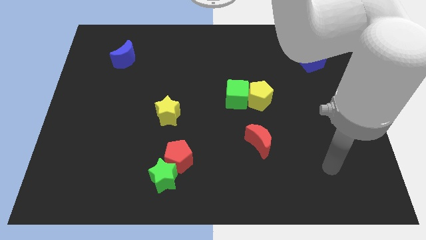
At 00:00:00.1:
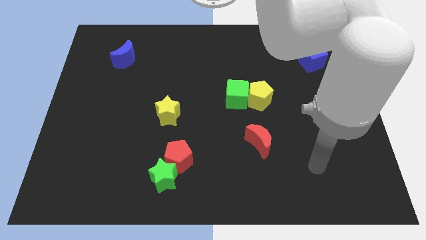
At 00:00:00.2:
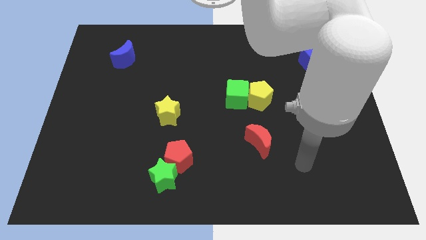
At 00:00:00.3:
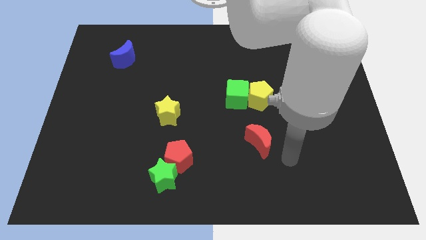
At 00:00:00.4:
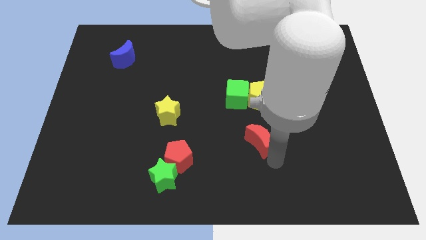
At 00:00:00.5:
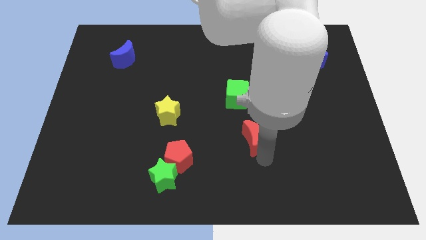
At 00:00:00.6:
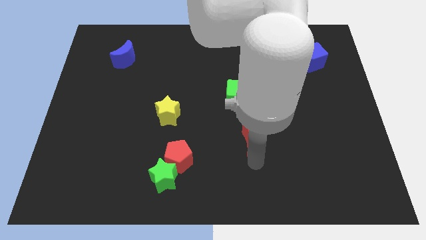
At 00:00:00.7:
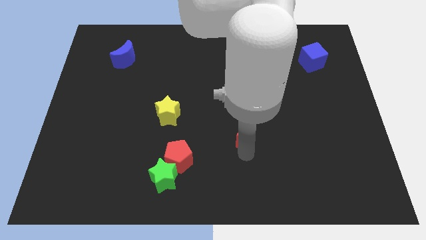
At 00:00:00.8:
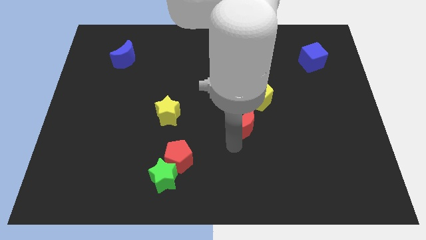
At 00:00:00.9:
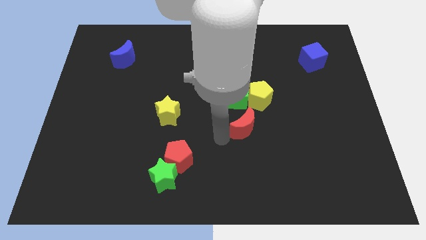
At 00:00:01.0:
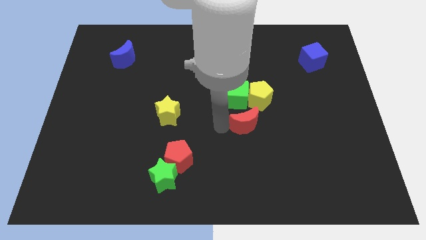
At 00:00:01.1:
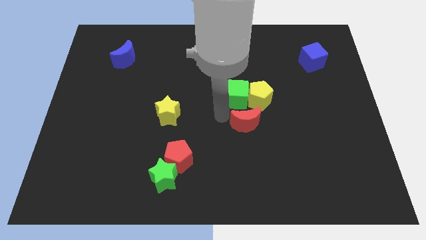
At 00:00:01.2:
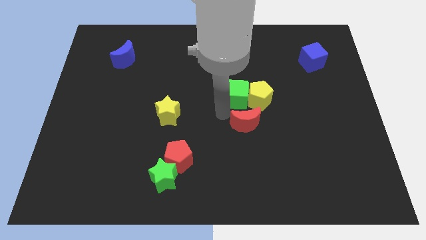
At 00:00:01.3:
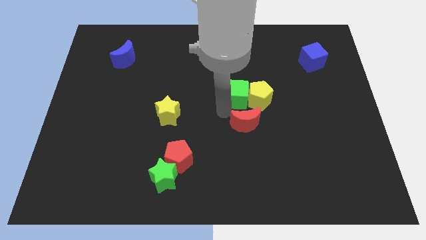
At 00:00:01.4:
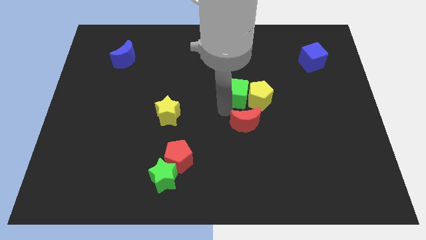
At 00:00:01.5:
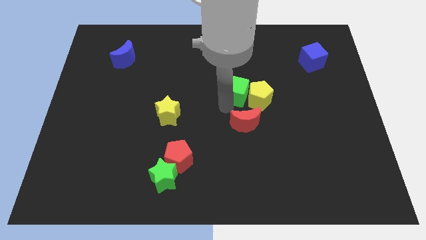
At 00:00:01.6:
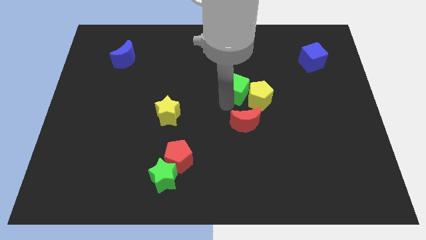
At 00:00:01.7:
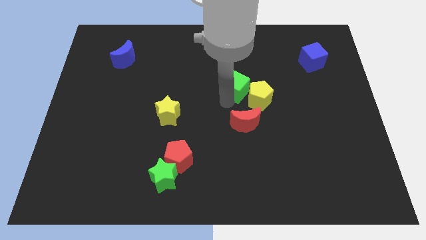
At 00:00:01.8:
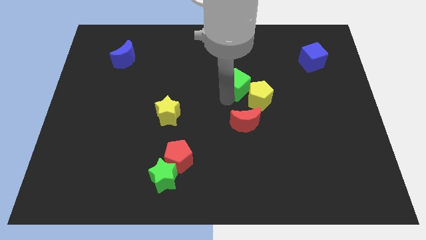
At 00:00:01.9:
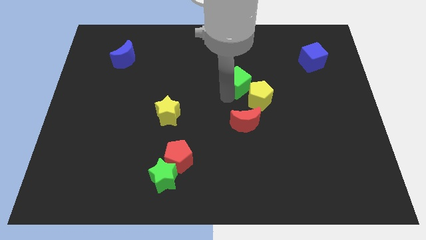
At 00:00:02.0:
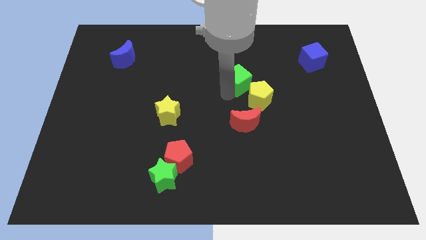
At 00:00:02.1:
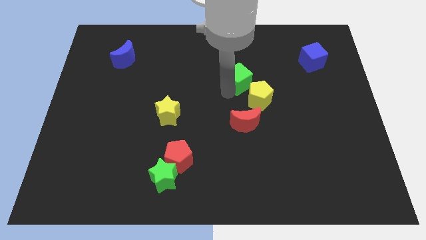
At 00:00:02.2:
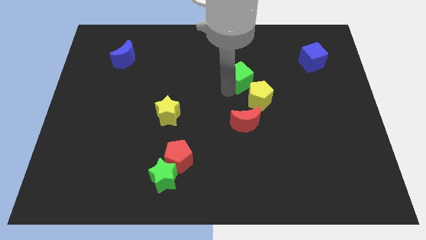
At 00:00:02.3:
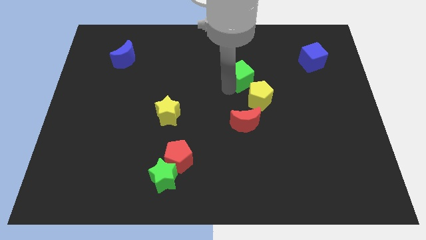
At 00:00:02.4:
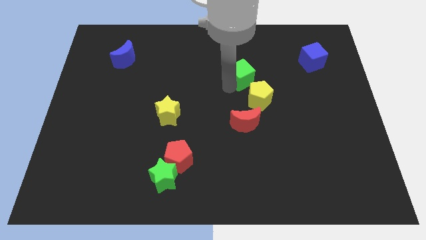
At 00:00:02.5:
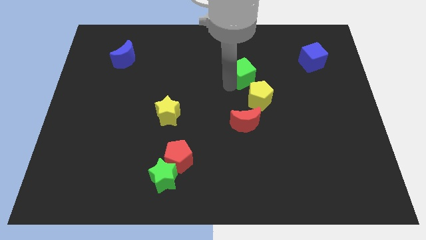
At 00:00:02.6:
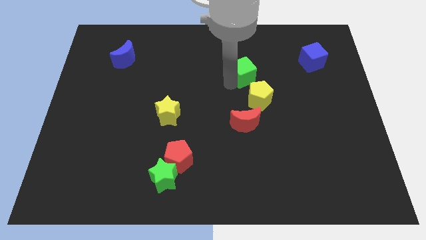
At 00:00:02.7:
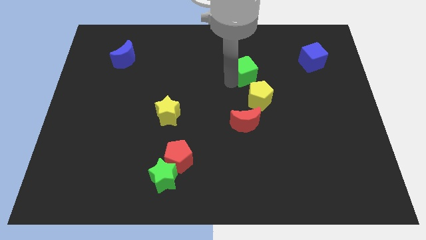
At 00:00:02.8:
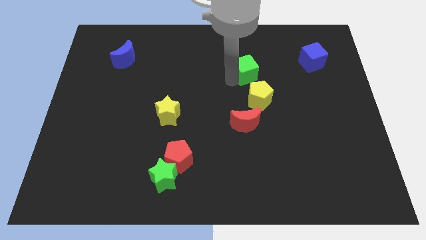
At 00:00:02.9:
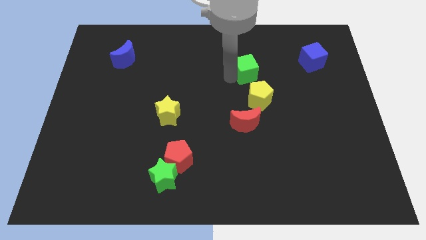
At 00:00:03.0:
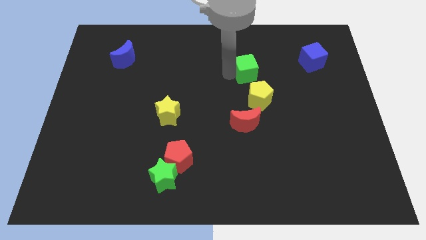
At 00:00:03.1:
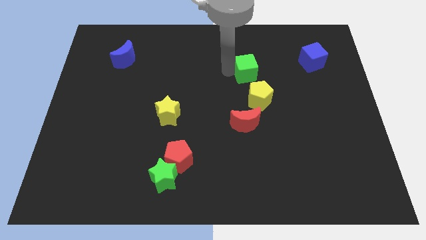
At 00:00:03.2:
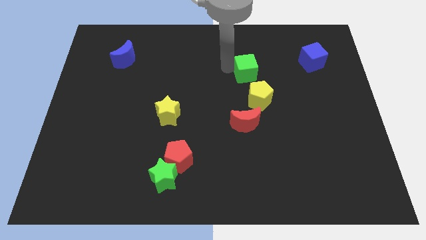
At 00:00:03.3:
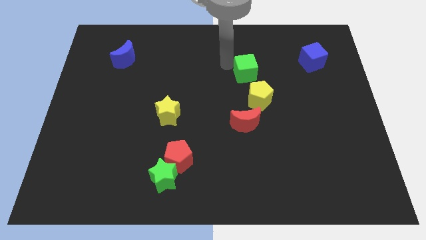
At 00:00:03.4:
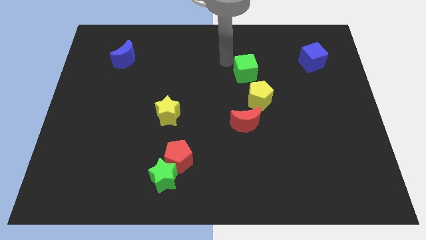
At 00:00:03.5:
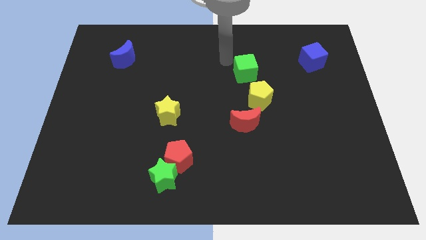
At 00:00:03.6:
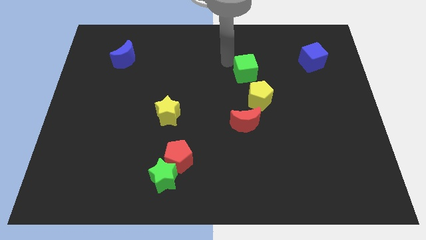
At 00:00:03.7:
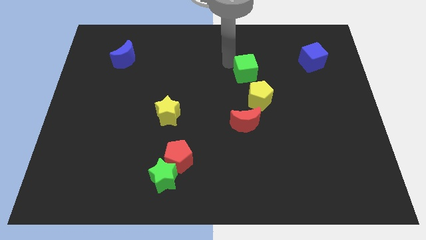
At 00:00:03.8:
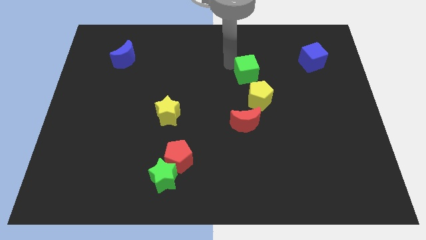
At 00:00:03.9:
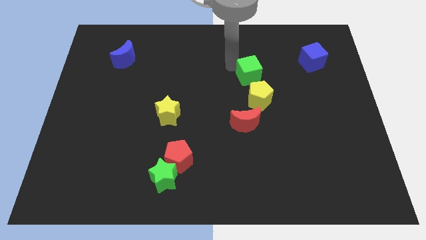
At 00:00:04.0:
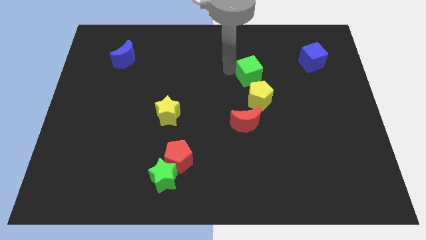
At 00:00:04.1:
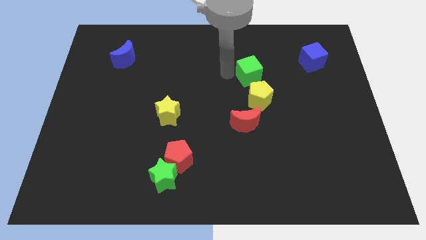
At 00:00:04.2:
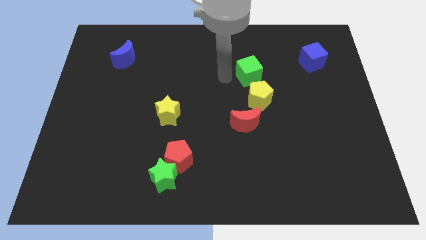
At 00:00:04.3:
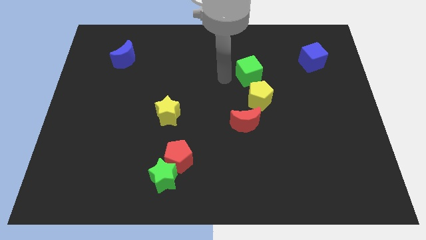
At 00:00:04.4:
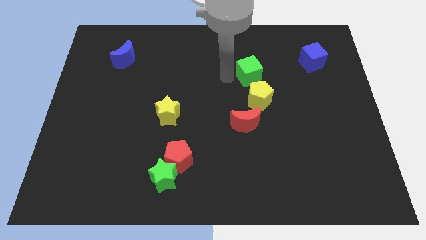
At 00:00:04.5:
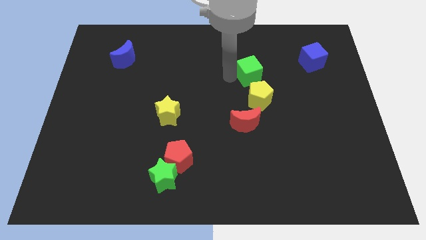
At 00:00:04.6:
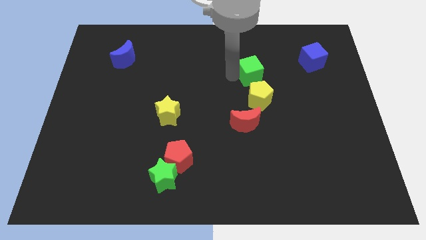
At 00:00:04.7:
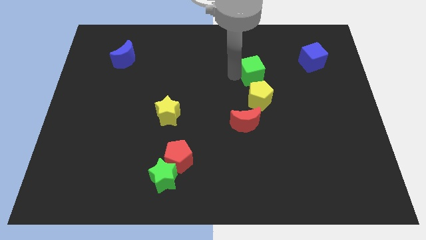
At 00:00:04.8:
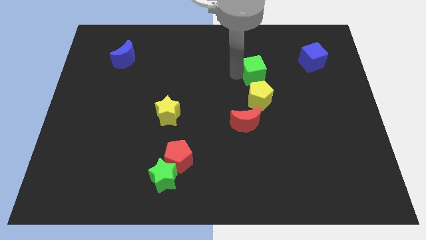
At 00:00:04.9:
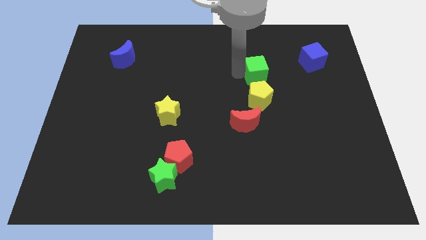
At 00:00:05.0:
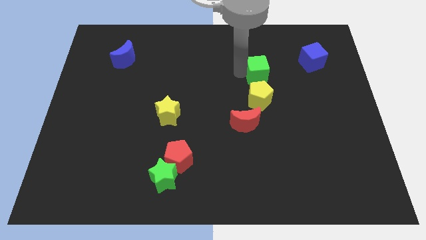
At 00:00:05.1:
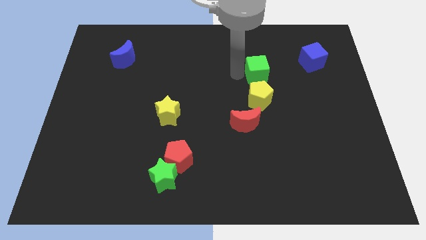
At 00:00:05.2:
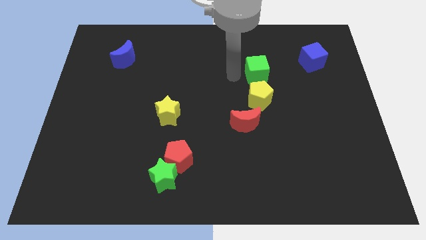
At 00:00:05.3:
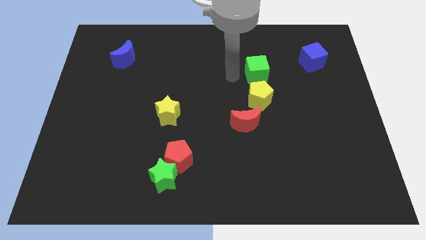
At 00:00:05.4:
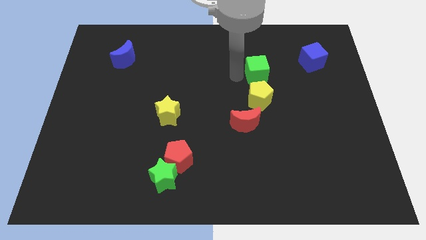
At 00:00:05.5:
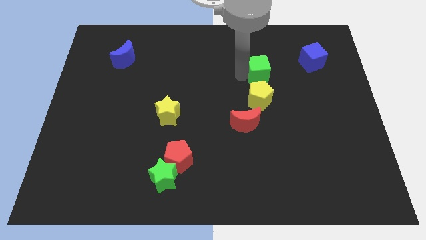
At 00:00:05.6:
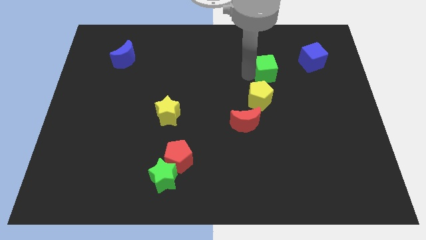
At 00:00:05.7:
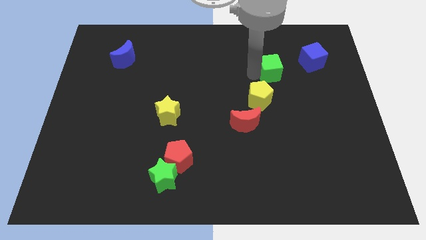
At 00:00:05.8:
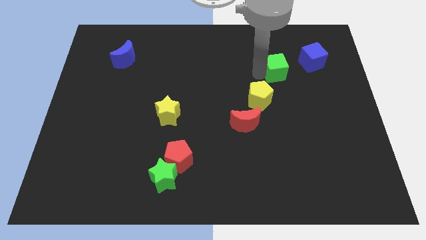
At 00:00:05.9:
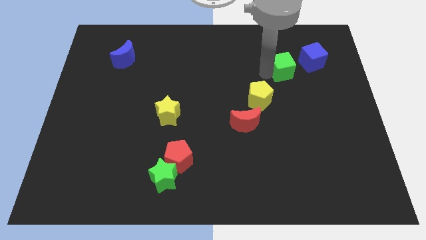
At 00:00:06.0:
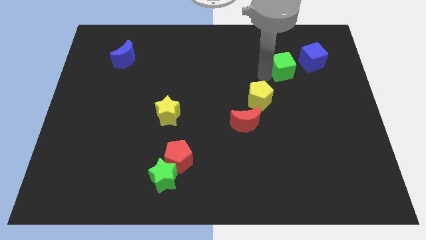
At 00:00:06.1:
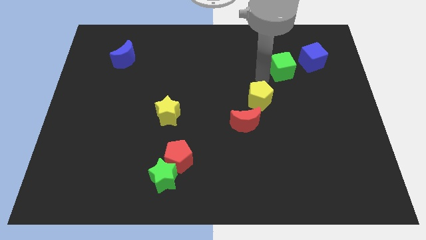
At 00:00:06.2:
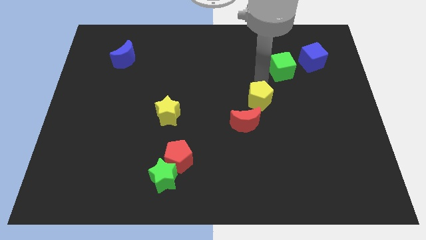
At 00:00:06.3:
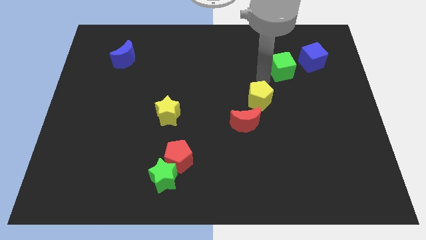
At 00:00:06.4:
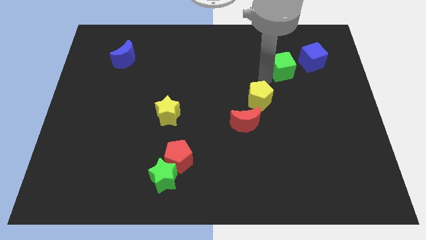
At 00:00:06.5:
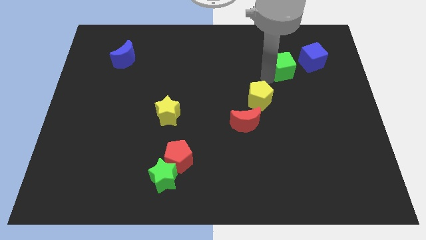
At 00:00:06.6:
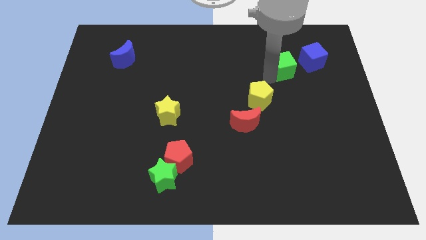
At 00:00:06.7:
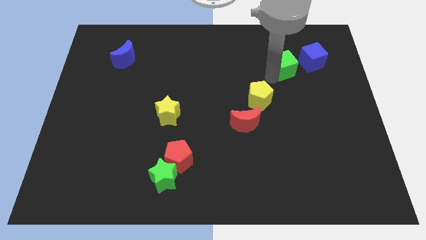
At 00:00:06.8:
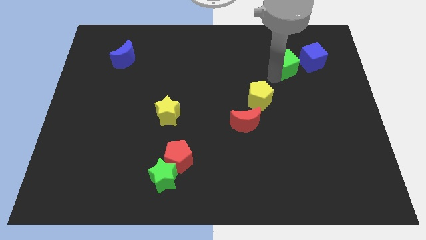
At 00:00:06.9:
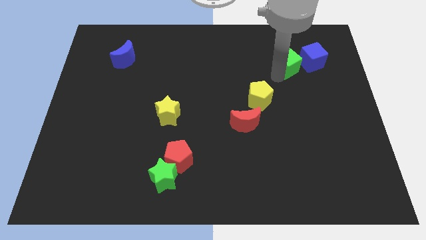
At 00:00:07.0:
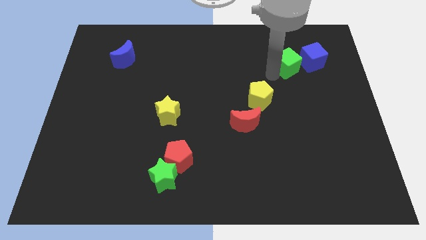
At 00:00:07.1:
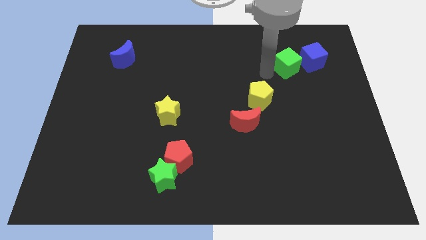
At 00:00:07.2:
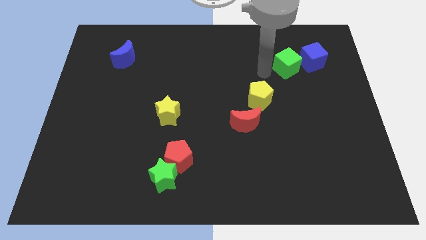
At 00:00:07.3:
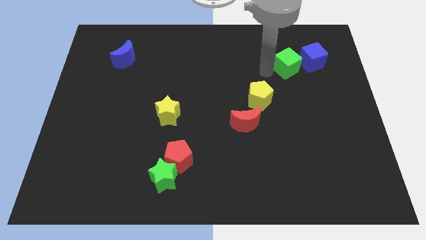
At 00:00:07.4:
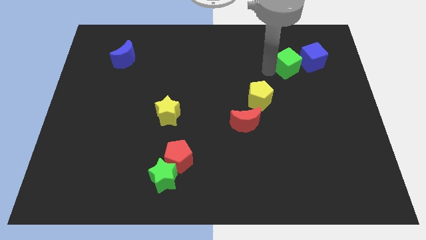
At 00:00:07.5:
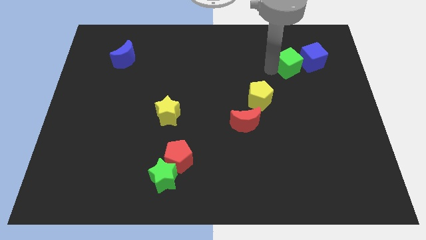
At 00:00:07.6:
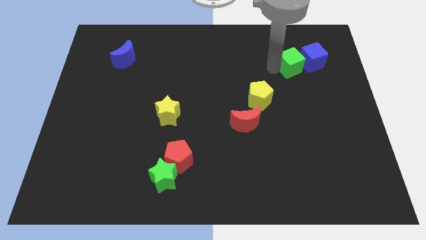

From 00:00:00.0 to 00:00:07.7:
slide the green cube to the blue cube

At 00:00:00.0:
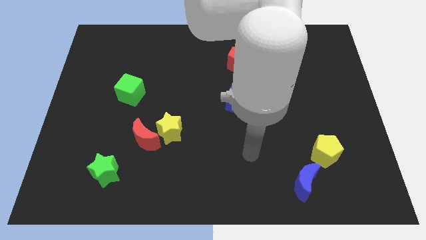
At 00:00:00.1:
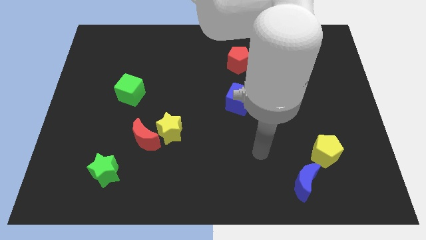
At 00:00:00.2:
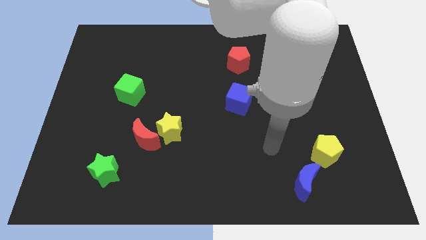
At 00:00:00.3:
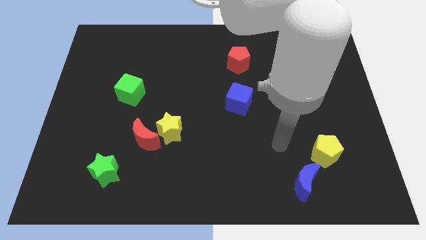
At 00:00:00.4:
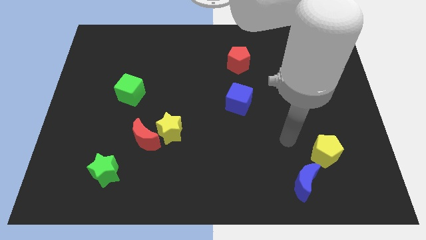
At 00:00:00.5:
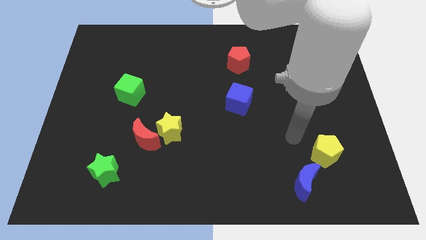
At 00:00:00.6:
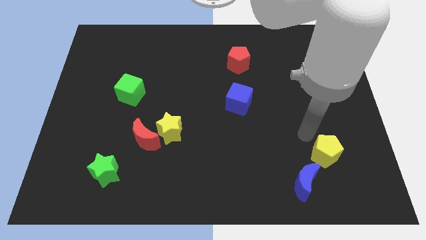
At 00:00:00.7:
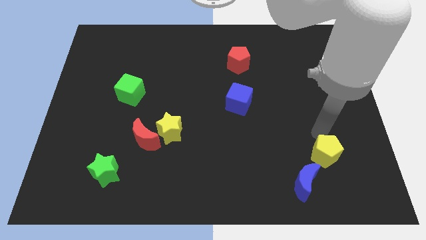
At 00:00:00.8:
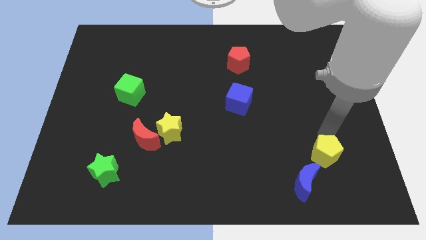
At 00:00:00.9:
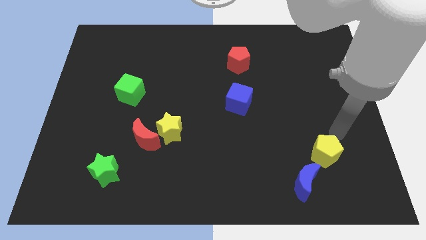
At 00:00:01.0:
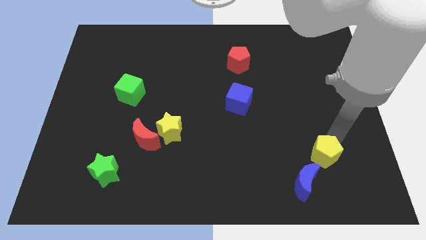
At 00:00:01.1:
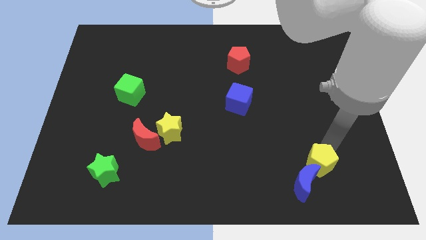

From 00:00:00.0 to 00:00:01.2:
push the yellow pentagon towards the blue moon
